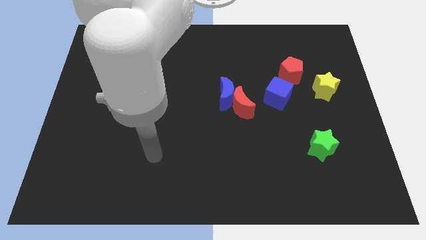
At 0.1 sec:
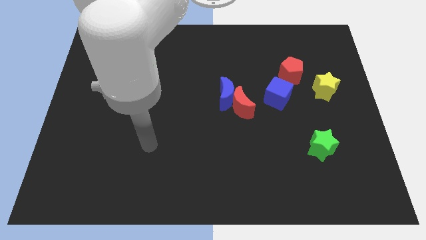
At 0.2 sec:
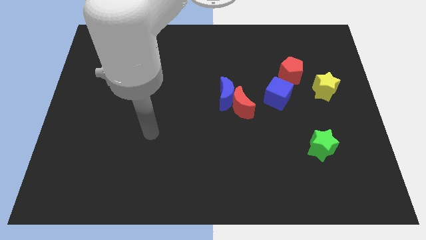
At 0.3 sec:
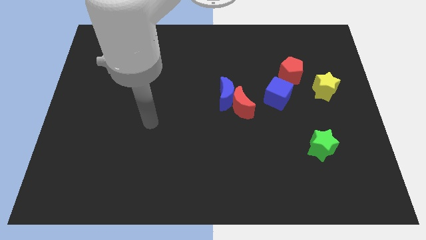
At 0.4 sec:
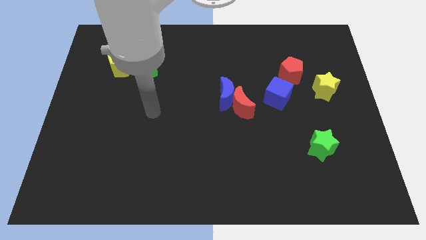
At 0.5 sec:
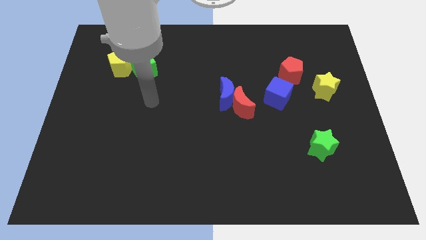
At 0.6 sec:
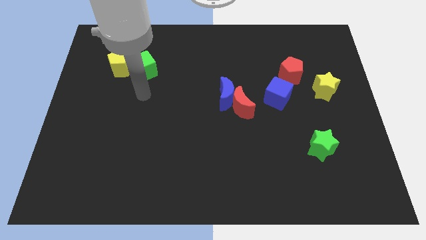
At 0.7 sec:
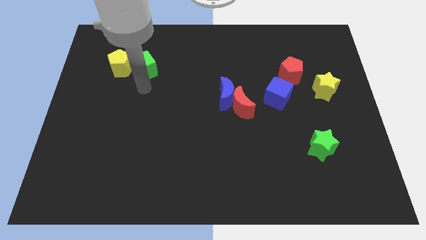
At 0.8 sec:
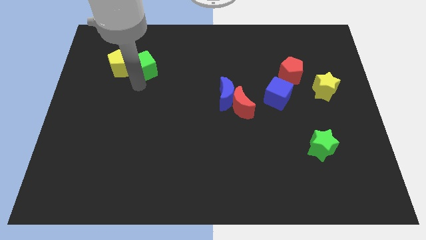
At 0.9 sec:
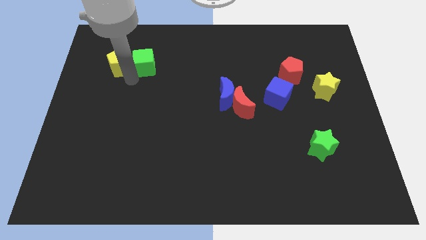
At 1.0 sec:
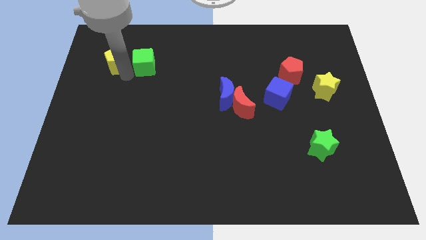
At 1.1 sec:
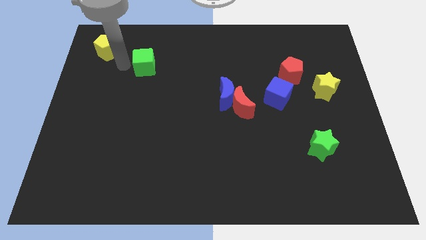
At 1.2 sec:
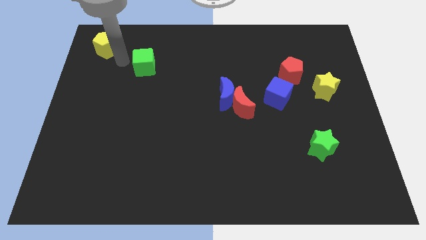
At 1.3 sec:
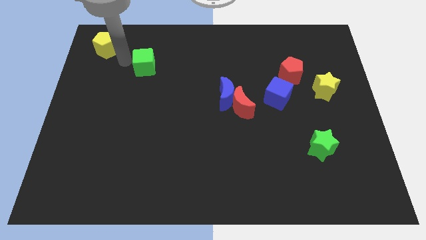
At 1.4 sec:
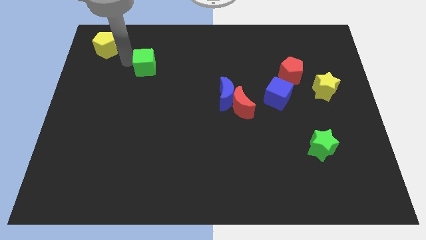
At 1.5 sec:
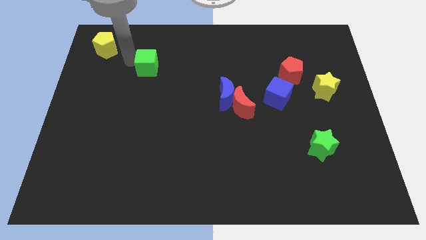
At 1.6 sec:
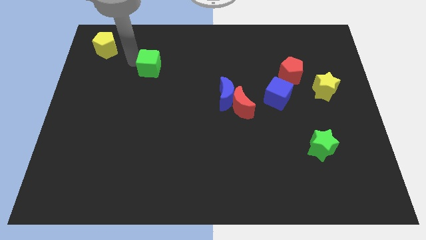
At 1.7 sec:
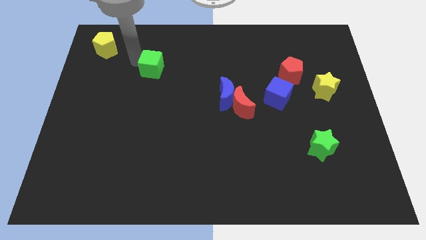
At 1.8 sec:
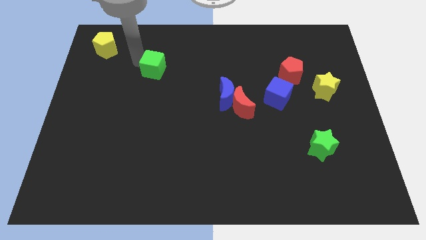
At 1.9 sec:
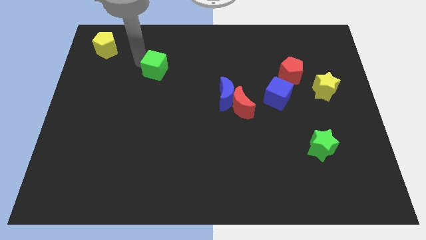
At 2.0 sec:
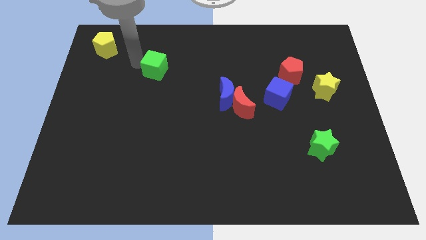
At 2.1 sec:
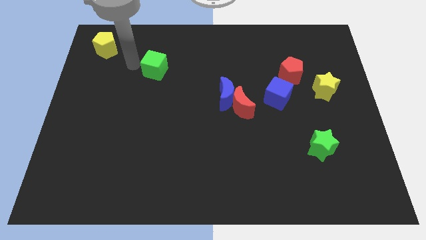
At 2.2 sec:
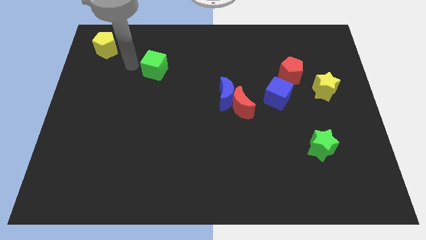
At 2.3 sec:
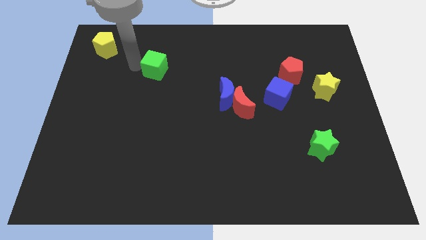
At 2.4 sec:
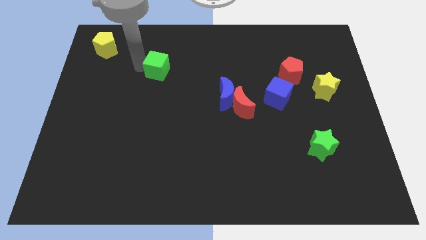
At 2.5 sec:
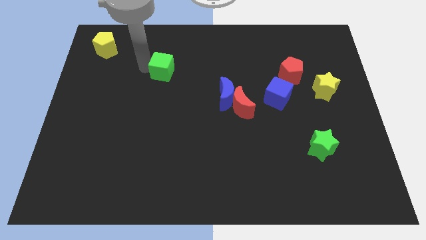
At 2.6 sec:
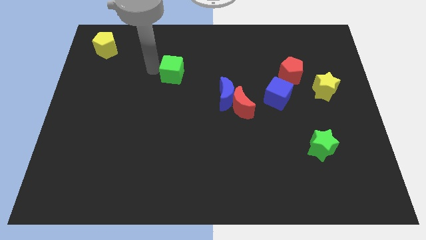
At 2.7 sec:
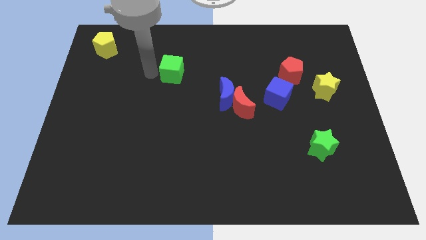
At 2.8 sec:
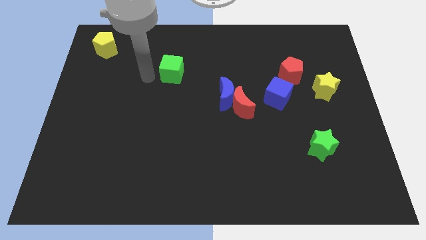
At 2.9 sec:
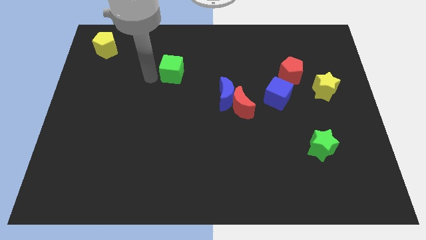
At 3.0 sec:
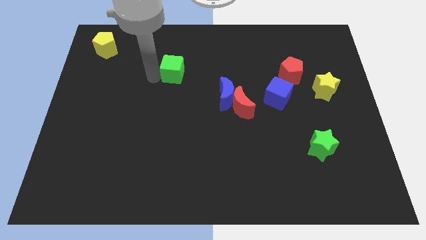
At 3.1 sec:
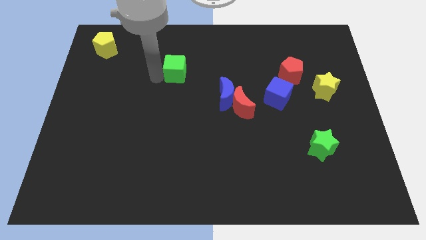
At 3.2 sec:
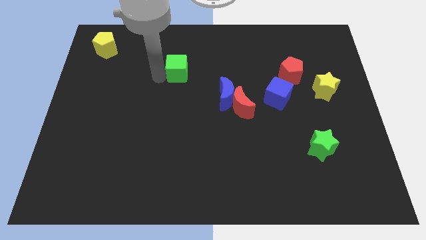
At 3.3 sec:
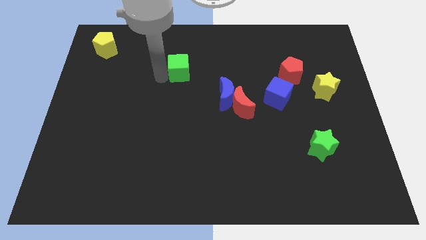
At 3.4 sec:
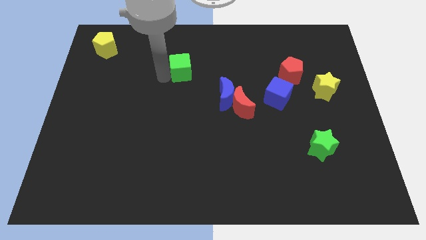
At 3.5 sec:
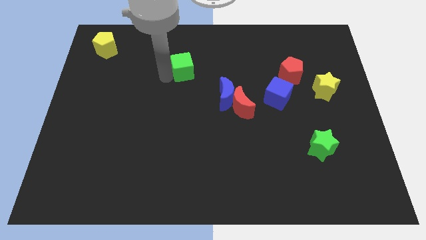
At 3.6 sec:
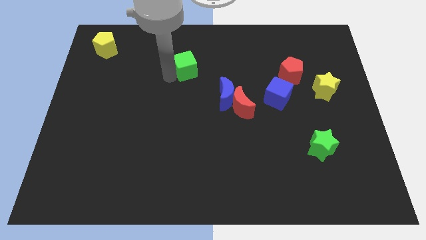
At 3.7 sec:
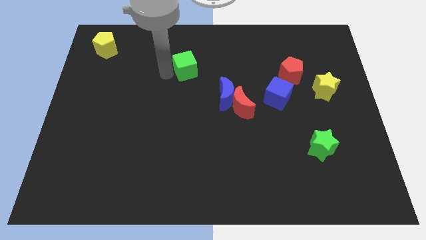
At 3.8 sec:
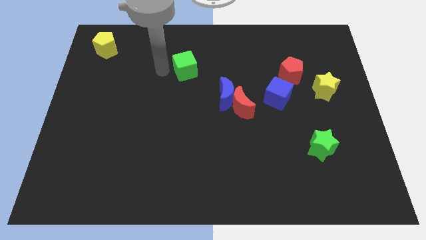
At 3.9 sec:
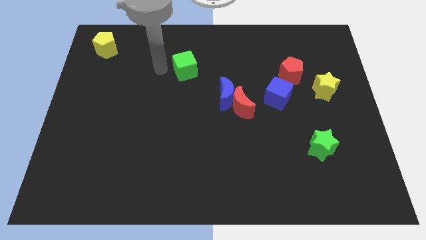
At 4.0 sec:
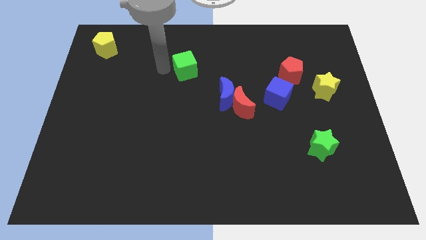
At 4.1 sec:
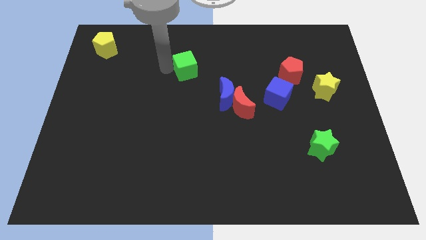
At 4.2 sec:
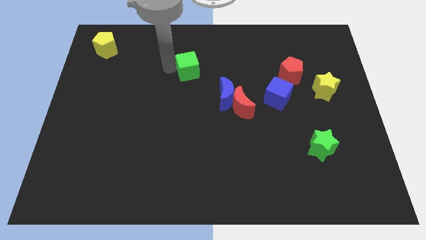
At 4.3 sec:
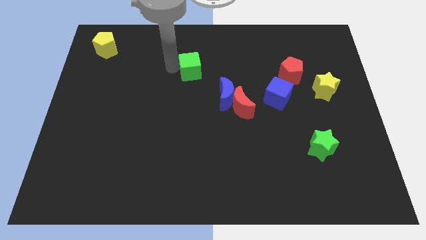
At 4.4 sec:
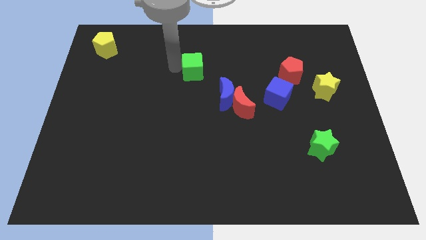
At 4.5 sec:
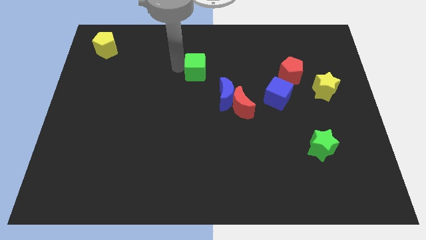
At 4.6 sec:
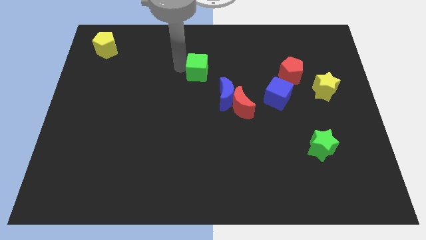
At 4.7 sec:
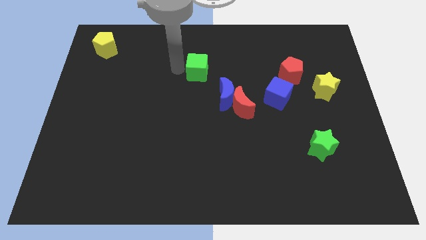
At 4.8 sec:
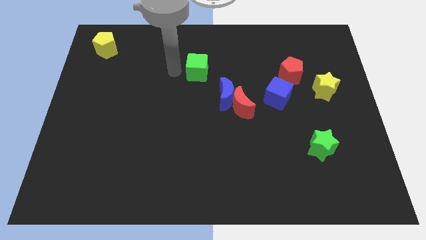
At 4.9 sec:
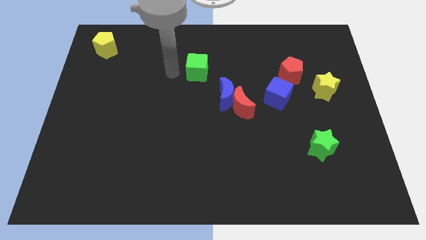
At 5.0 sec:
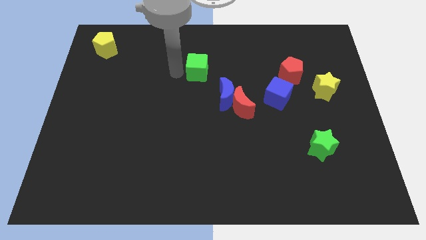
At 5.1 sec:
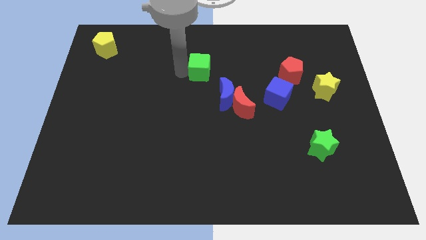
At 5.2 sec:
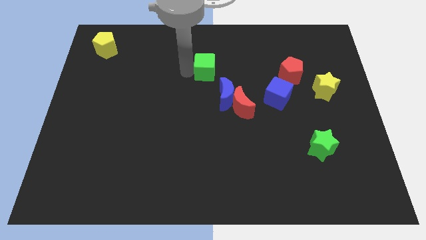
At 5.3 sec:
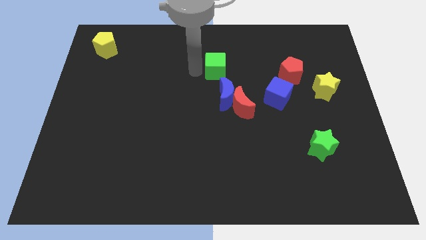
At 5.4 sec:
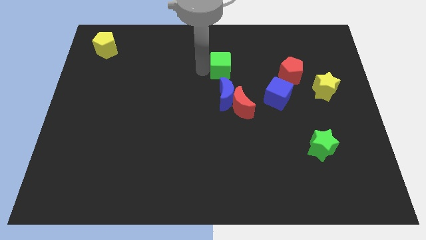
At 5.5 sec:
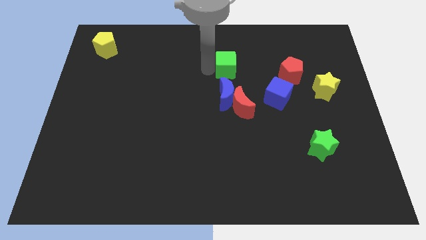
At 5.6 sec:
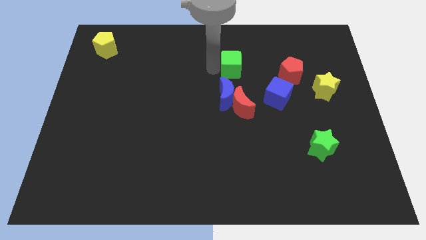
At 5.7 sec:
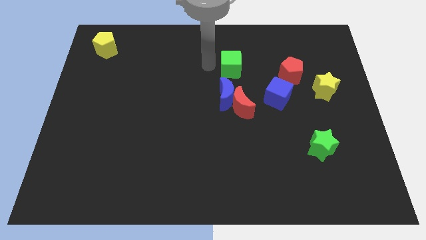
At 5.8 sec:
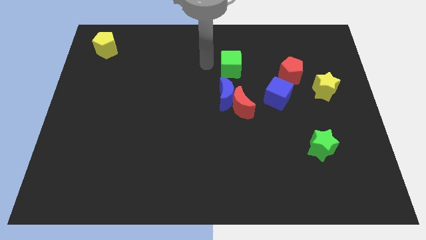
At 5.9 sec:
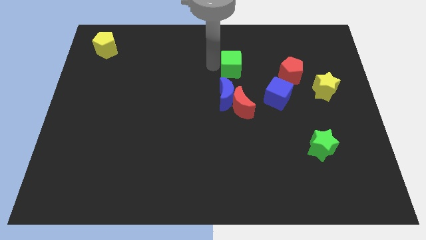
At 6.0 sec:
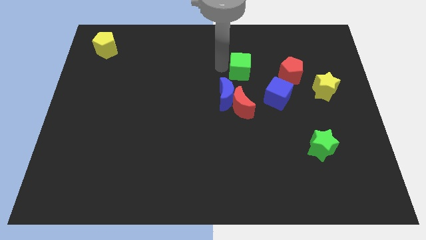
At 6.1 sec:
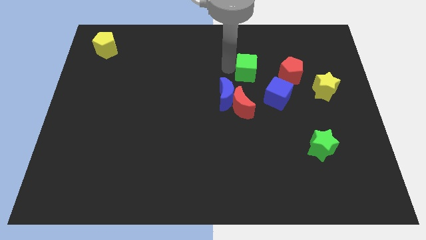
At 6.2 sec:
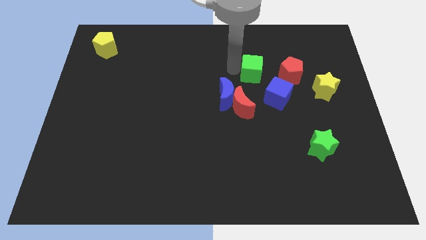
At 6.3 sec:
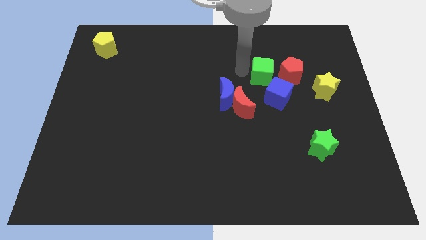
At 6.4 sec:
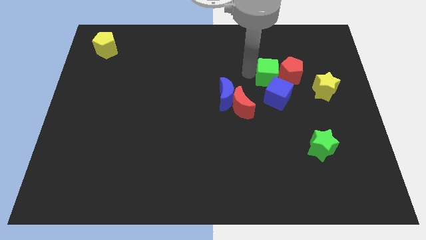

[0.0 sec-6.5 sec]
push the green cube next to the red pentagon

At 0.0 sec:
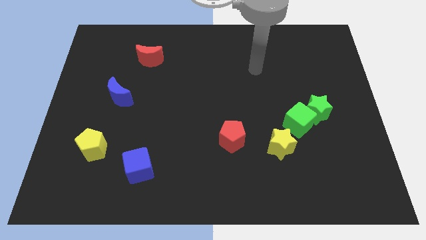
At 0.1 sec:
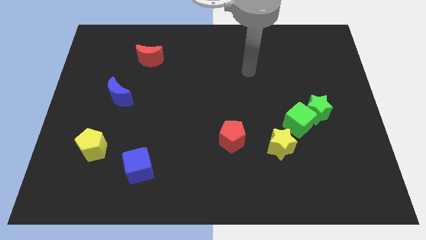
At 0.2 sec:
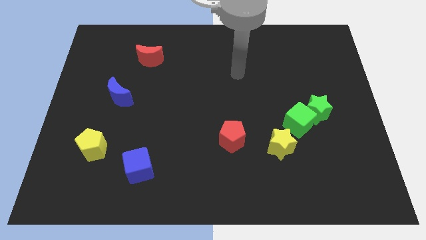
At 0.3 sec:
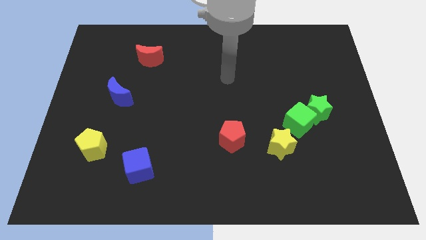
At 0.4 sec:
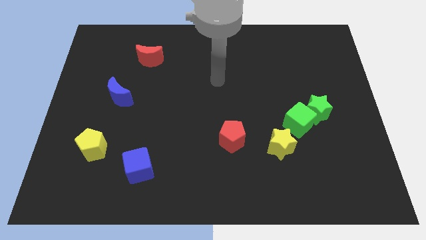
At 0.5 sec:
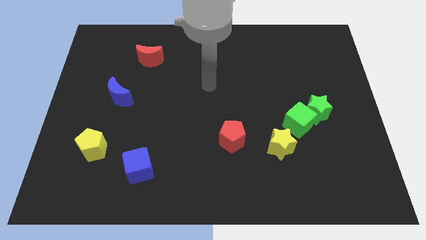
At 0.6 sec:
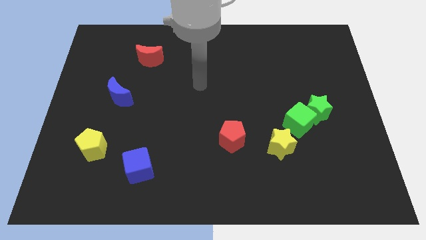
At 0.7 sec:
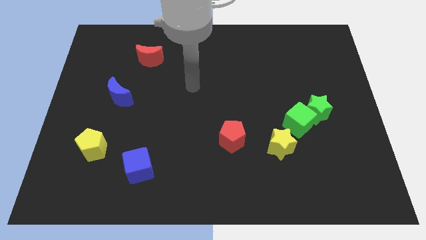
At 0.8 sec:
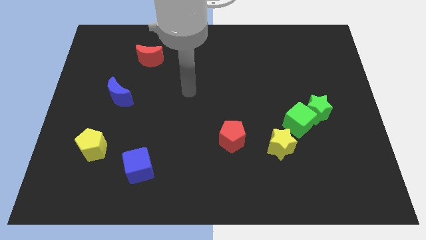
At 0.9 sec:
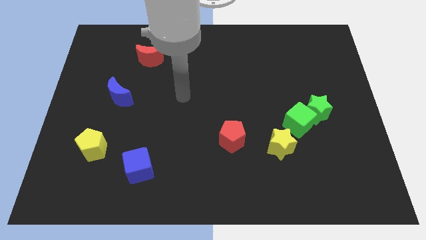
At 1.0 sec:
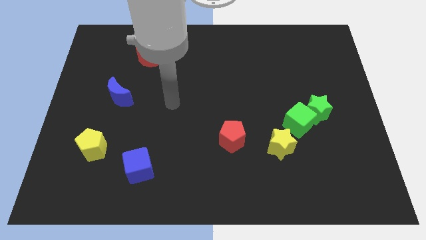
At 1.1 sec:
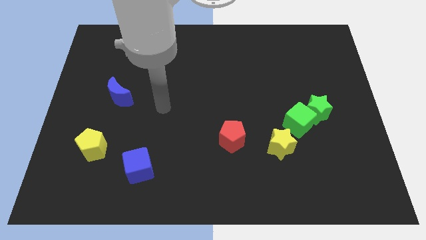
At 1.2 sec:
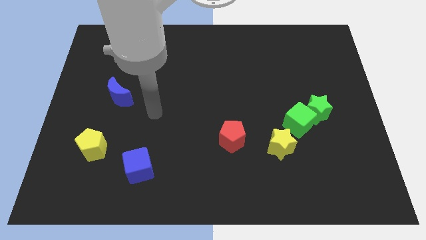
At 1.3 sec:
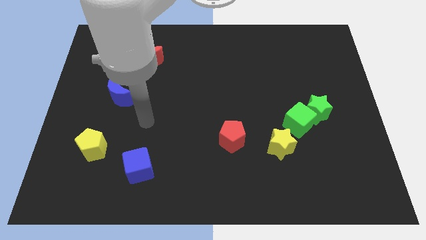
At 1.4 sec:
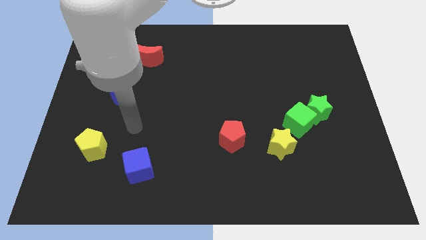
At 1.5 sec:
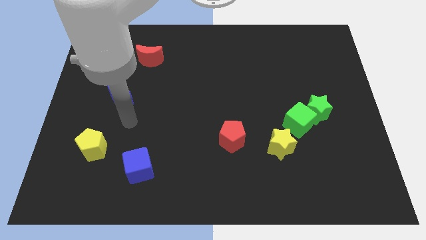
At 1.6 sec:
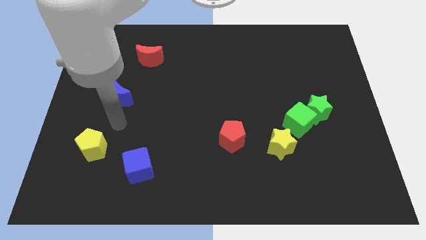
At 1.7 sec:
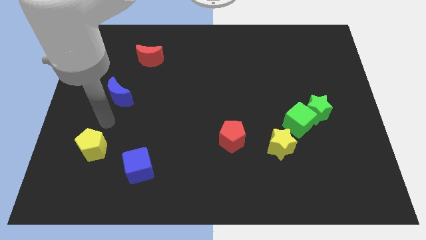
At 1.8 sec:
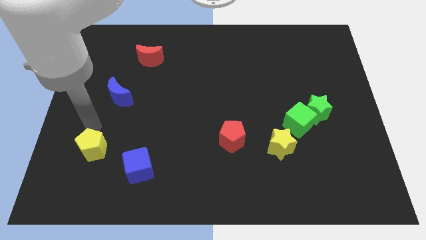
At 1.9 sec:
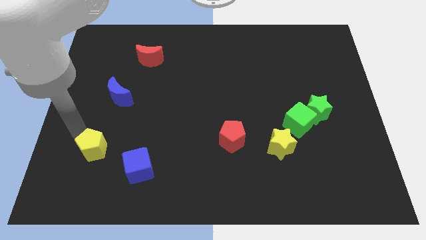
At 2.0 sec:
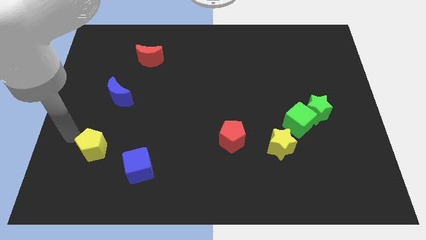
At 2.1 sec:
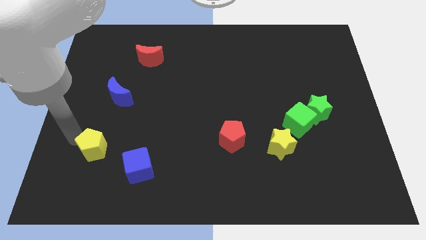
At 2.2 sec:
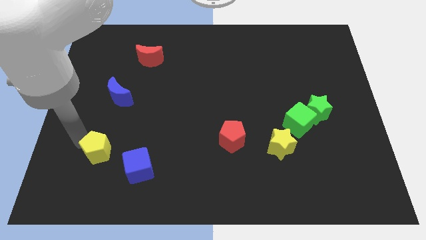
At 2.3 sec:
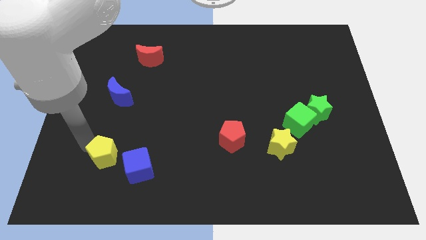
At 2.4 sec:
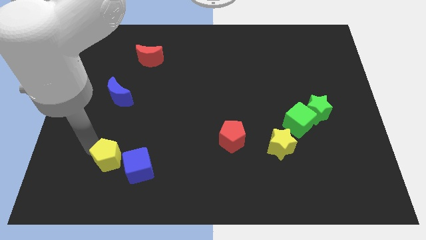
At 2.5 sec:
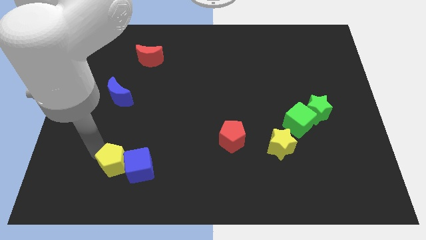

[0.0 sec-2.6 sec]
put the yellow pentagon to the blue cube
